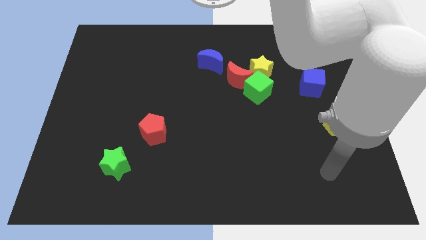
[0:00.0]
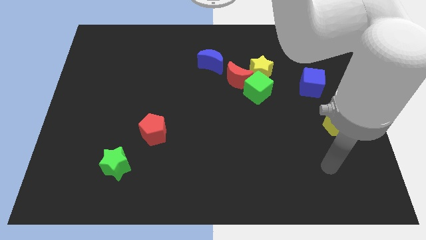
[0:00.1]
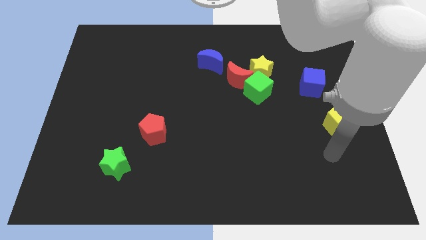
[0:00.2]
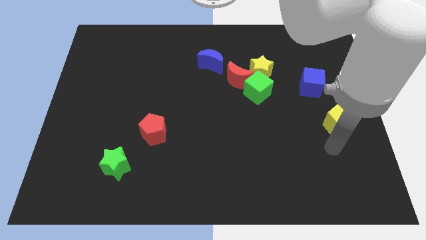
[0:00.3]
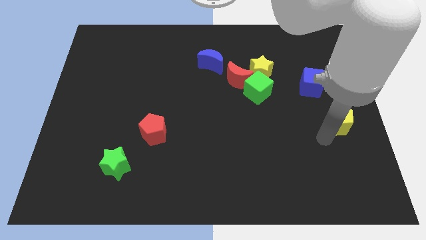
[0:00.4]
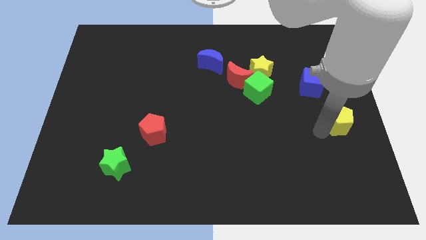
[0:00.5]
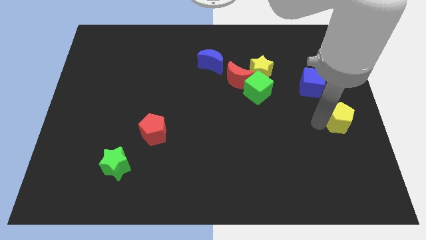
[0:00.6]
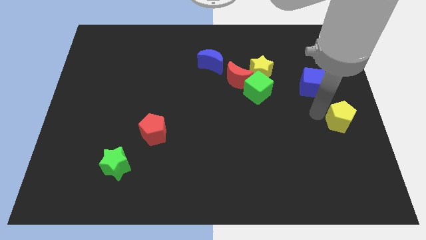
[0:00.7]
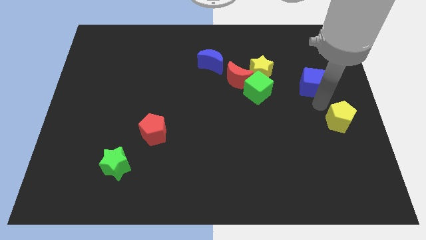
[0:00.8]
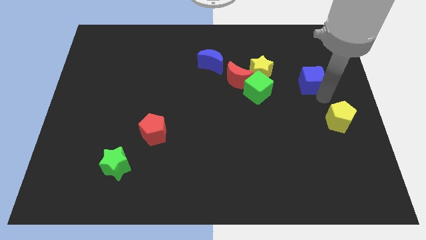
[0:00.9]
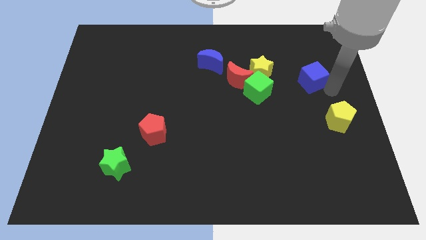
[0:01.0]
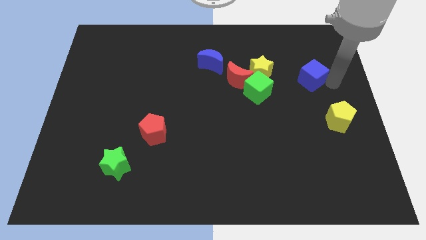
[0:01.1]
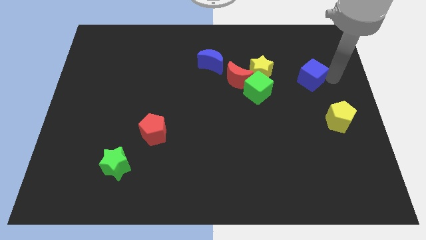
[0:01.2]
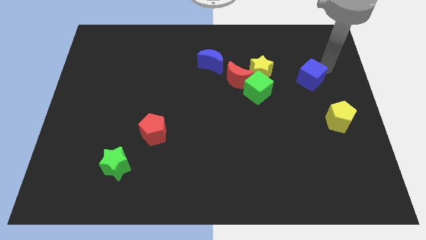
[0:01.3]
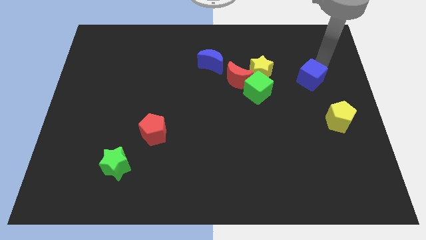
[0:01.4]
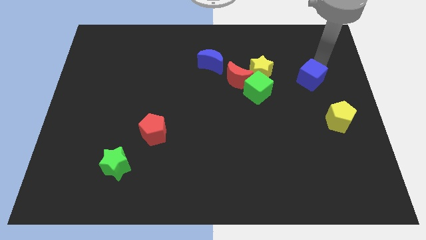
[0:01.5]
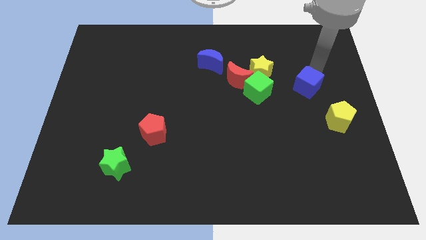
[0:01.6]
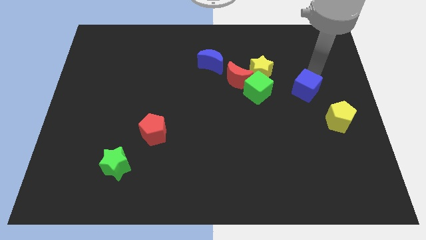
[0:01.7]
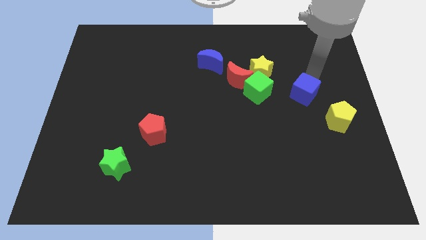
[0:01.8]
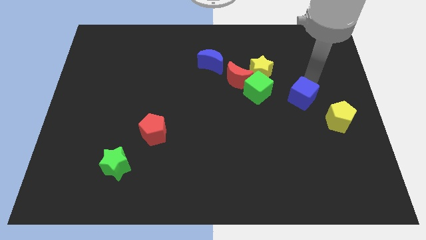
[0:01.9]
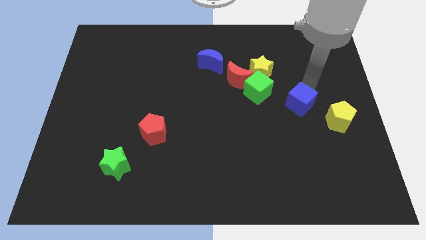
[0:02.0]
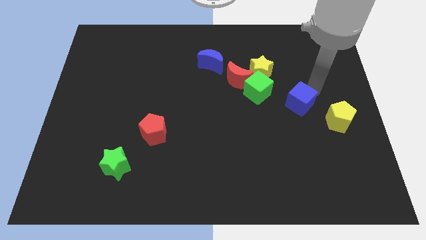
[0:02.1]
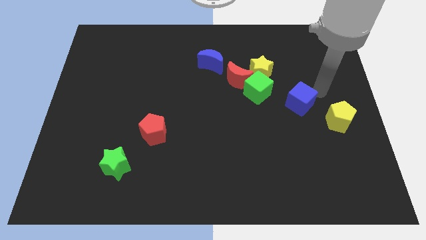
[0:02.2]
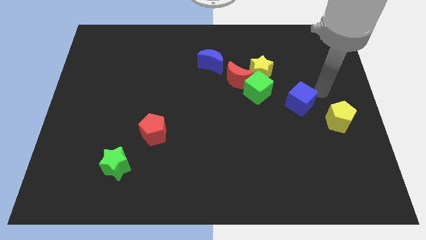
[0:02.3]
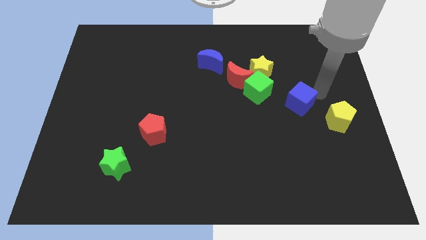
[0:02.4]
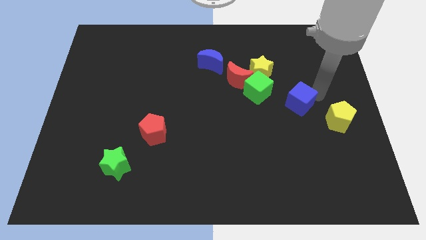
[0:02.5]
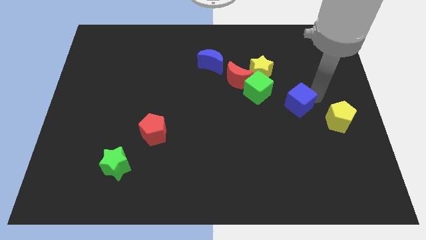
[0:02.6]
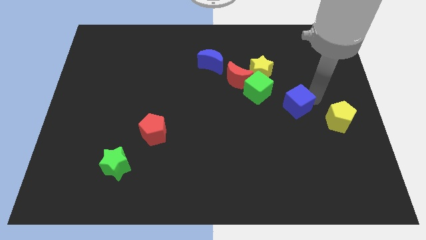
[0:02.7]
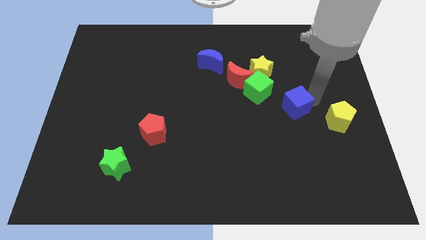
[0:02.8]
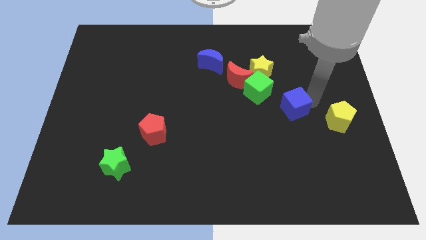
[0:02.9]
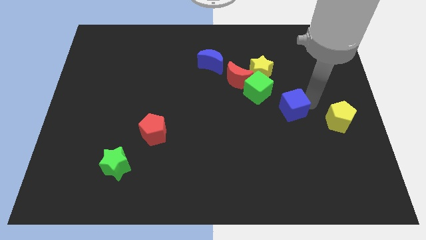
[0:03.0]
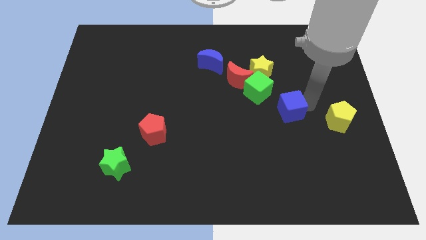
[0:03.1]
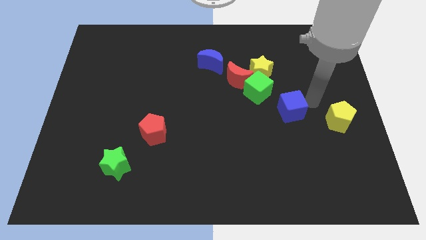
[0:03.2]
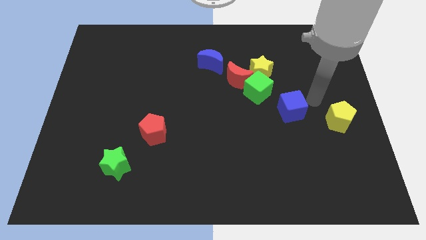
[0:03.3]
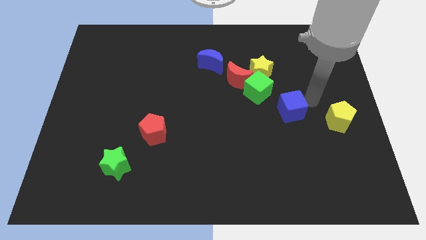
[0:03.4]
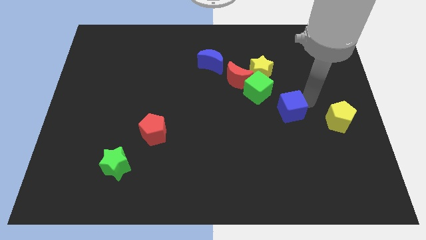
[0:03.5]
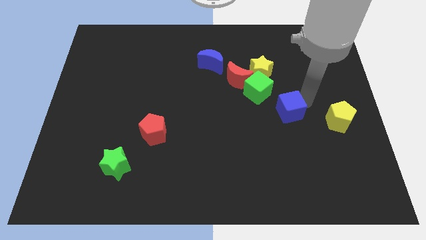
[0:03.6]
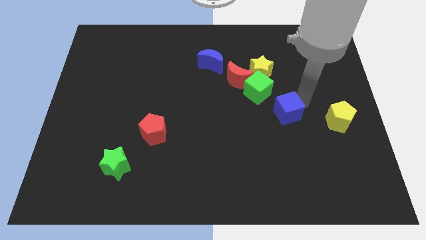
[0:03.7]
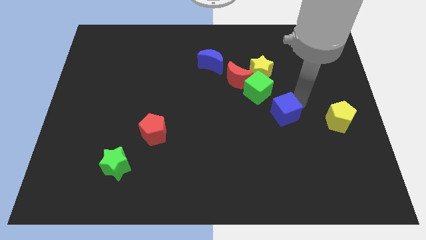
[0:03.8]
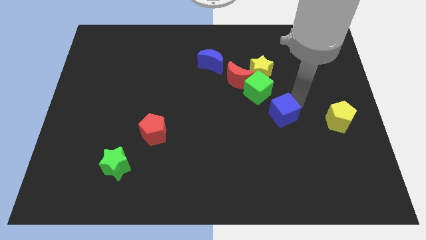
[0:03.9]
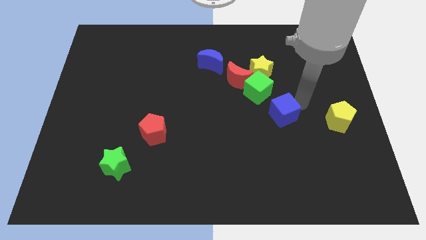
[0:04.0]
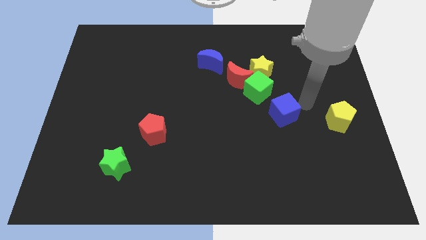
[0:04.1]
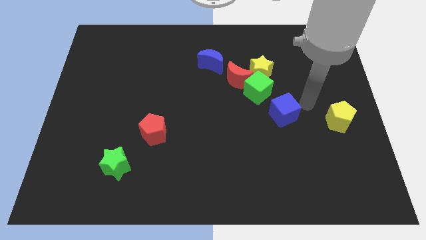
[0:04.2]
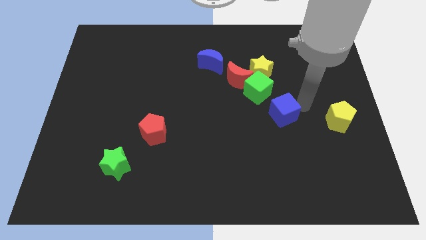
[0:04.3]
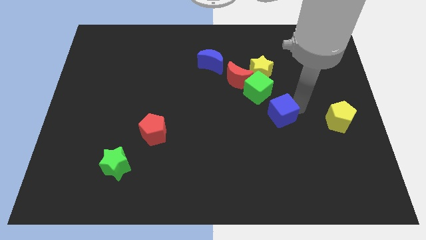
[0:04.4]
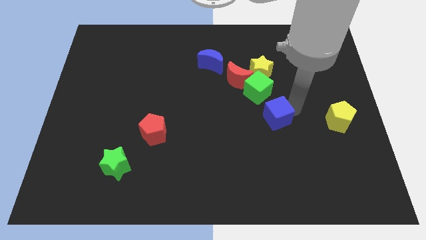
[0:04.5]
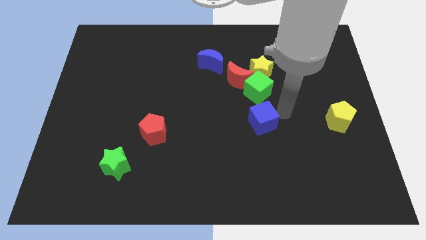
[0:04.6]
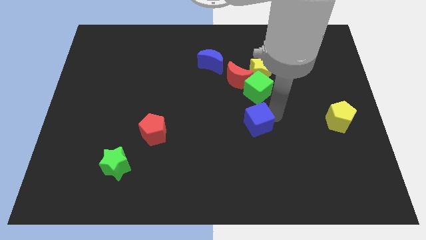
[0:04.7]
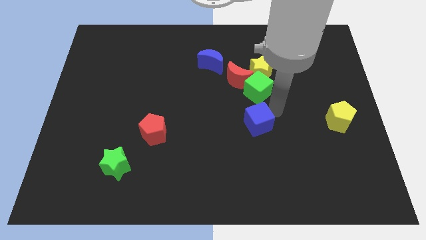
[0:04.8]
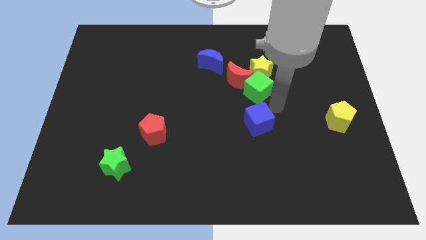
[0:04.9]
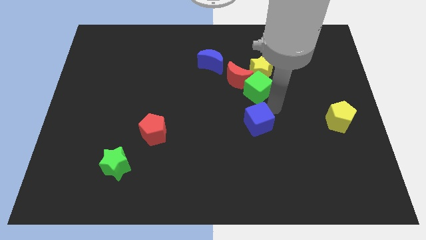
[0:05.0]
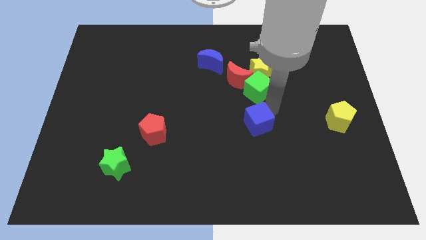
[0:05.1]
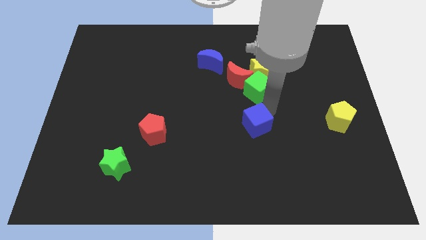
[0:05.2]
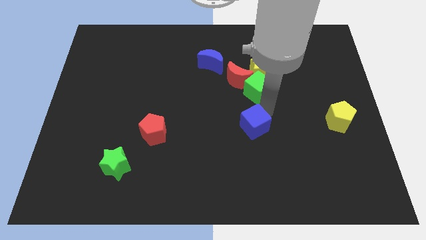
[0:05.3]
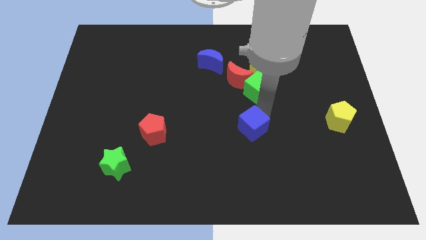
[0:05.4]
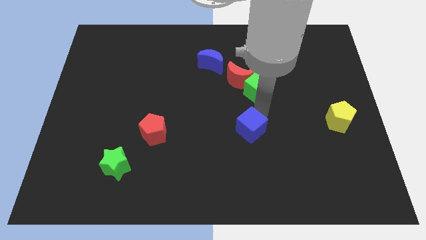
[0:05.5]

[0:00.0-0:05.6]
move the blue cube downwards and left

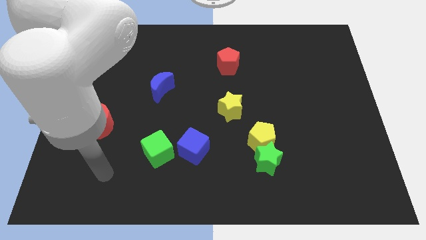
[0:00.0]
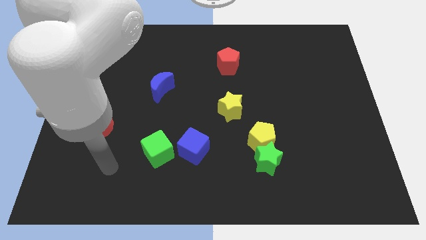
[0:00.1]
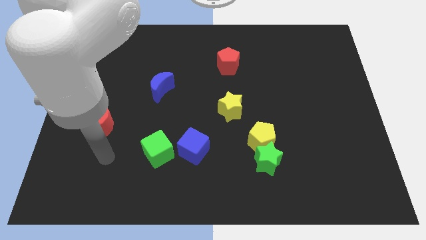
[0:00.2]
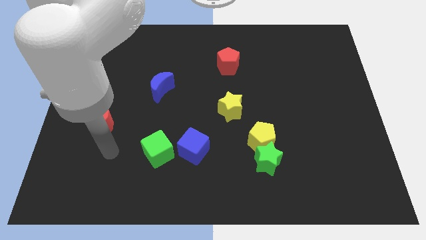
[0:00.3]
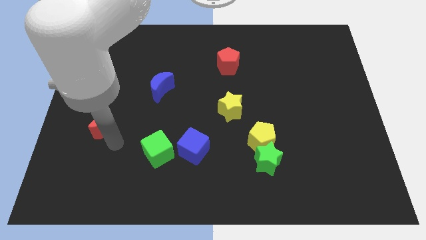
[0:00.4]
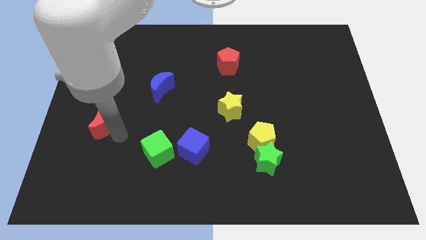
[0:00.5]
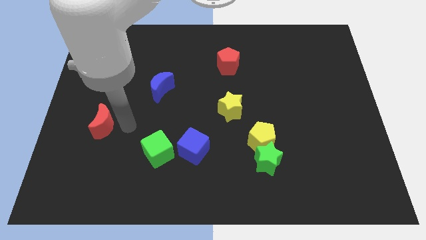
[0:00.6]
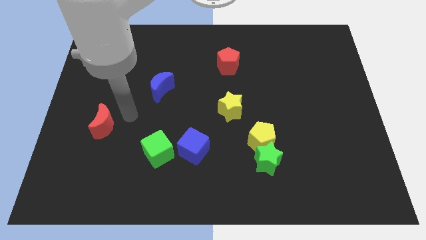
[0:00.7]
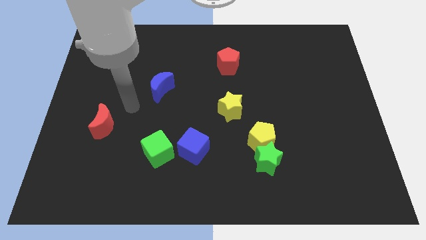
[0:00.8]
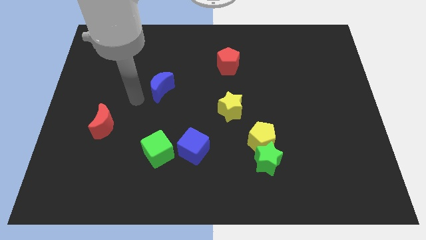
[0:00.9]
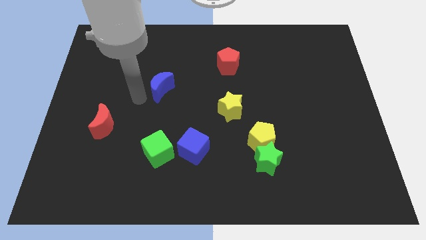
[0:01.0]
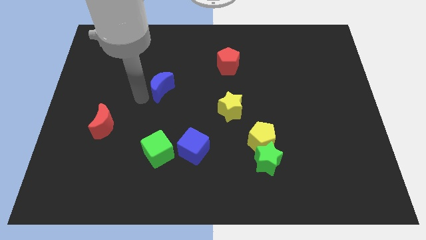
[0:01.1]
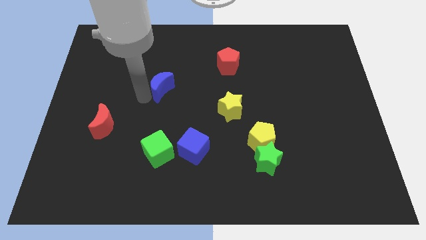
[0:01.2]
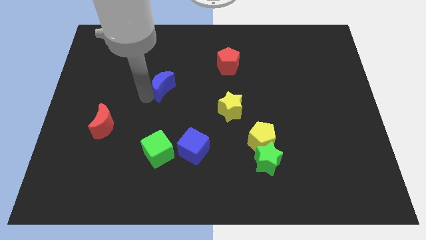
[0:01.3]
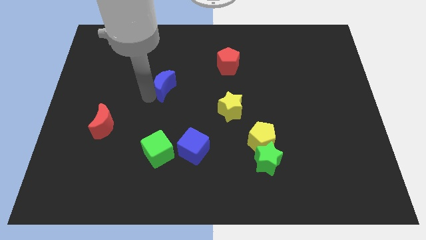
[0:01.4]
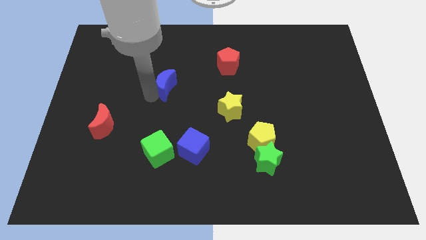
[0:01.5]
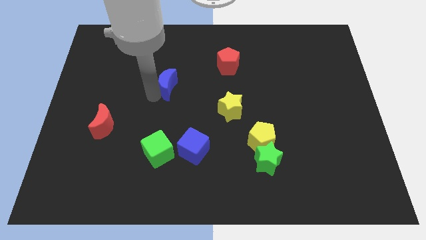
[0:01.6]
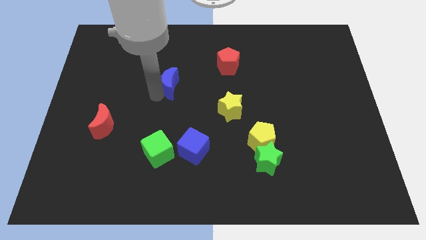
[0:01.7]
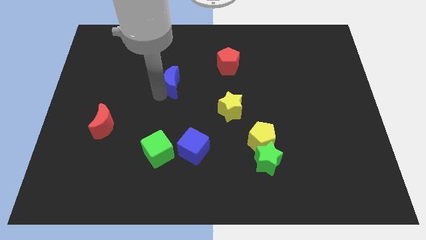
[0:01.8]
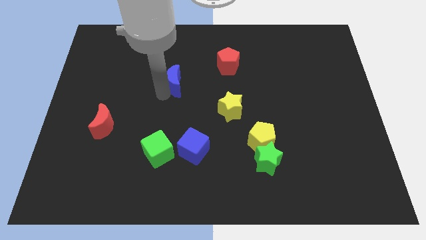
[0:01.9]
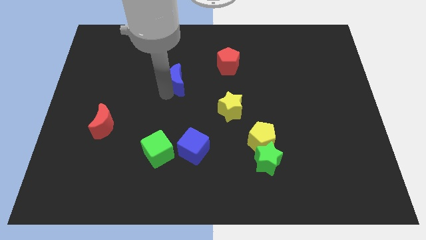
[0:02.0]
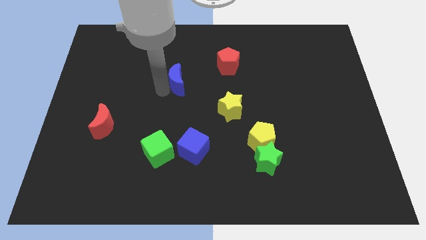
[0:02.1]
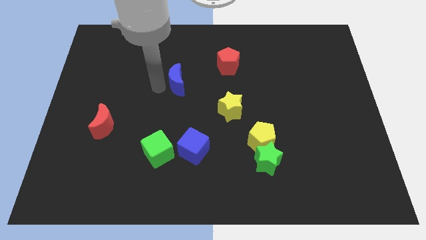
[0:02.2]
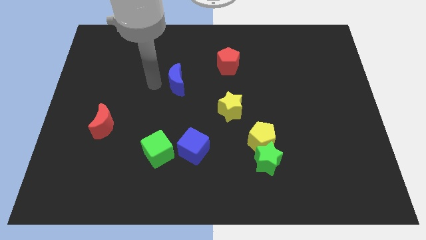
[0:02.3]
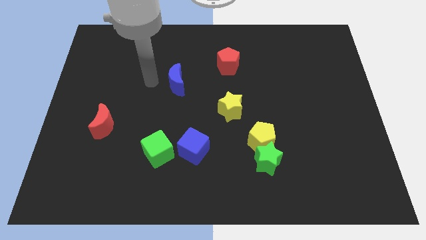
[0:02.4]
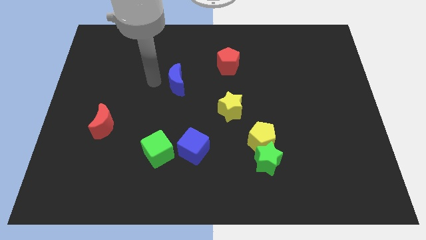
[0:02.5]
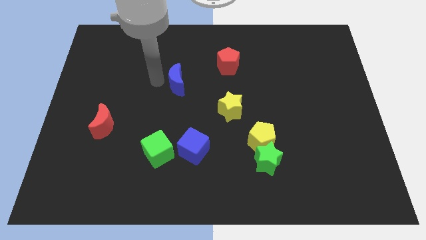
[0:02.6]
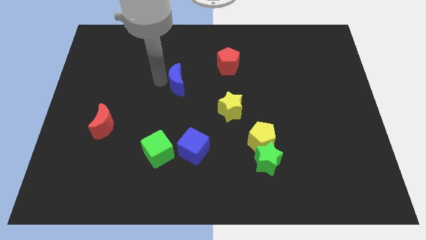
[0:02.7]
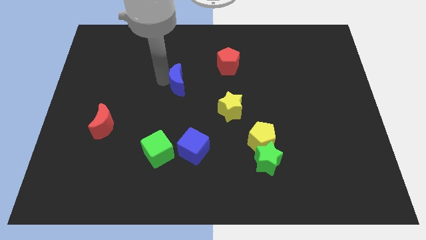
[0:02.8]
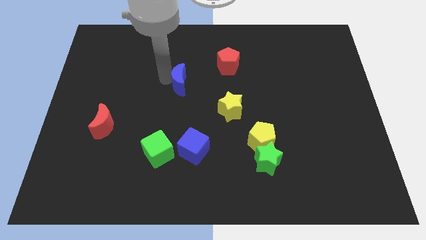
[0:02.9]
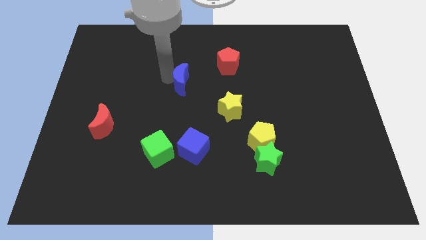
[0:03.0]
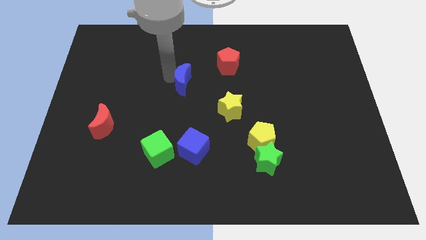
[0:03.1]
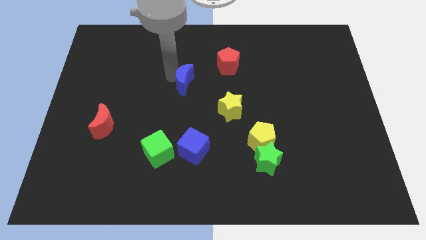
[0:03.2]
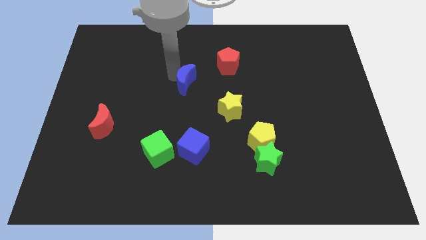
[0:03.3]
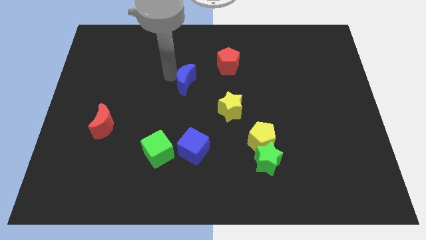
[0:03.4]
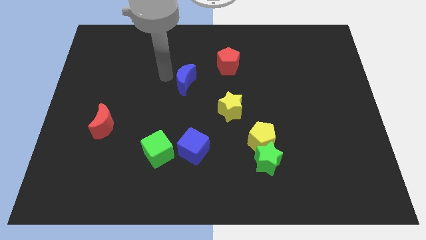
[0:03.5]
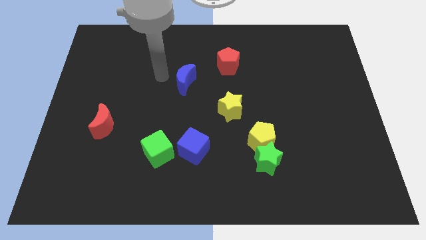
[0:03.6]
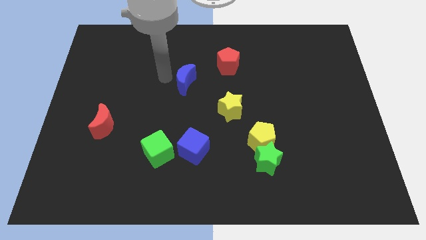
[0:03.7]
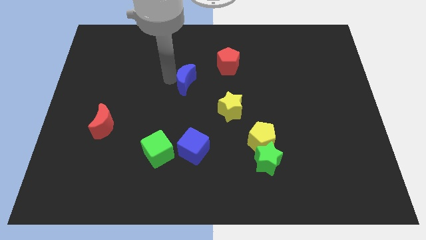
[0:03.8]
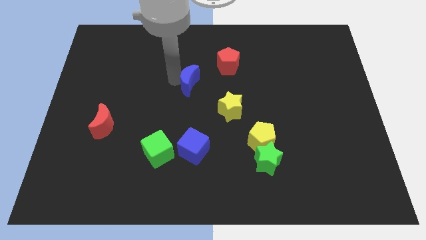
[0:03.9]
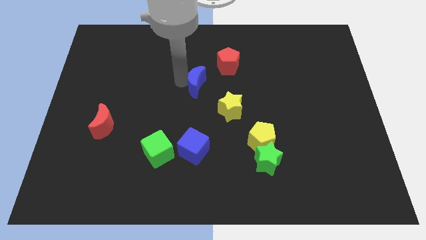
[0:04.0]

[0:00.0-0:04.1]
slightly slide the blue moon to the right
